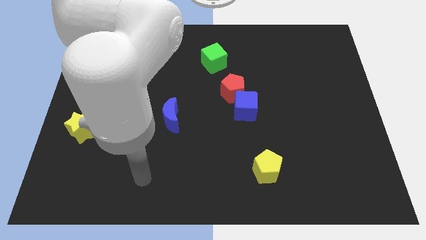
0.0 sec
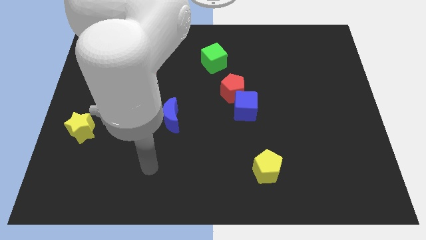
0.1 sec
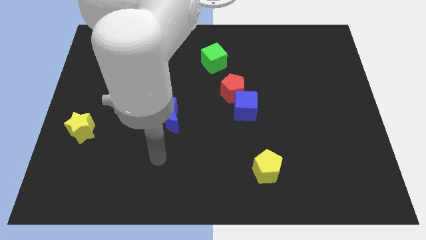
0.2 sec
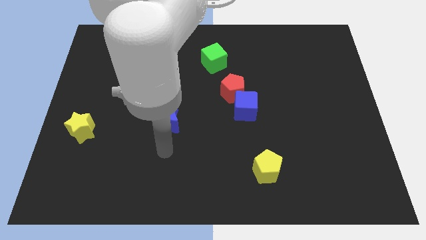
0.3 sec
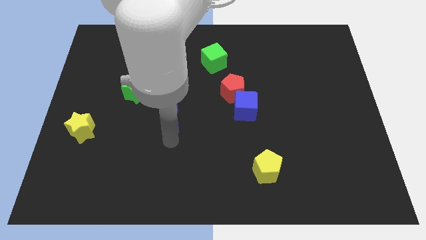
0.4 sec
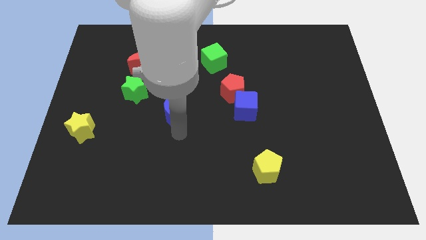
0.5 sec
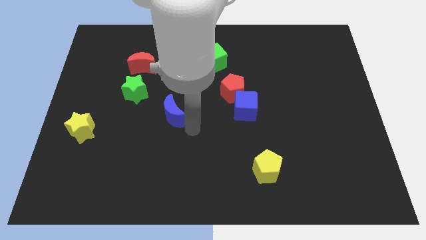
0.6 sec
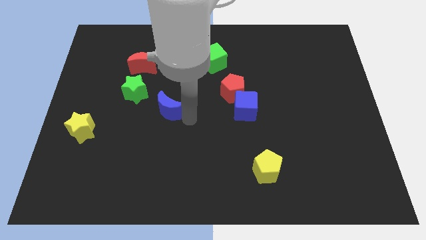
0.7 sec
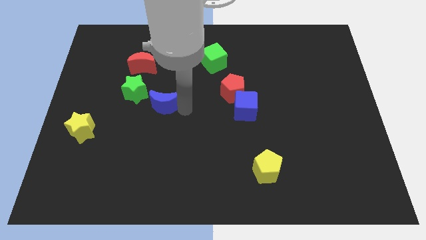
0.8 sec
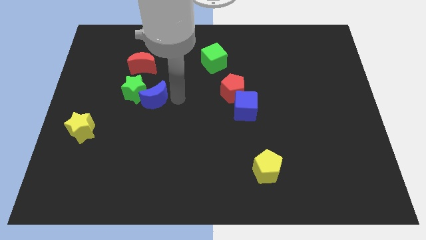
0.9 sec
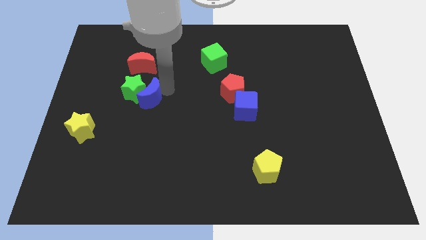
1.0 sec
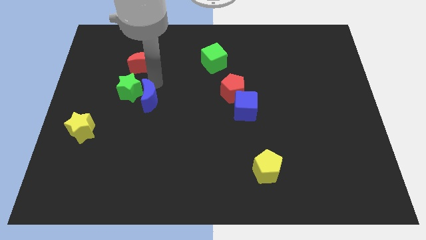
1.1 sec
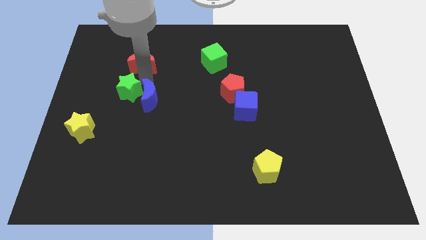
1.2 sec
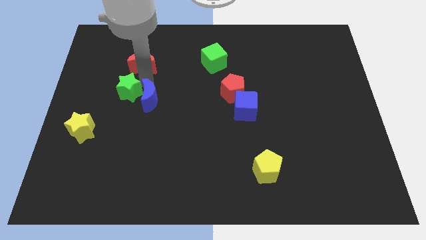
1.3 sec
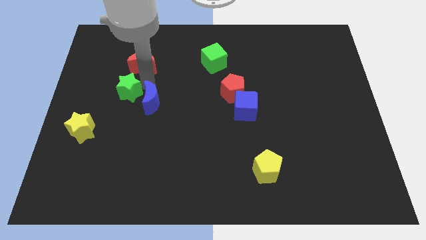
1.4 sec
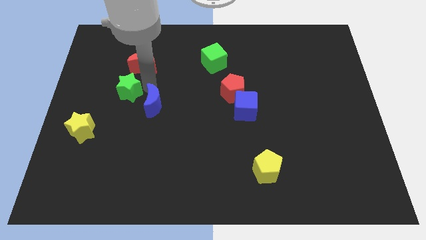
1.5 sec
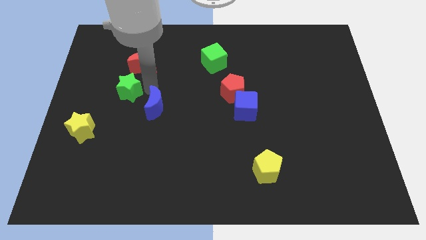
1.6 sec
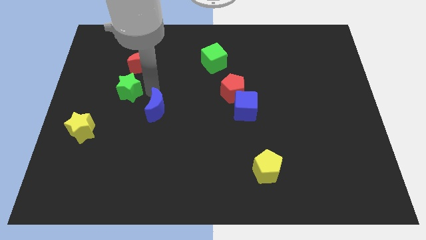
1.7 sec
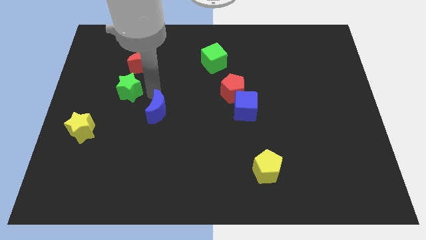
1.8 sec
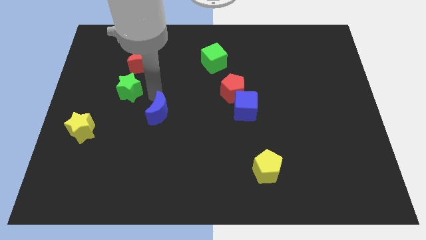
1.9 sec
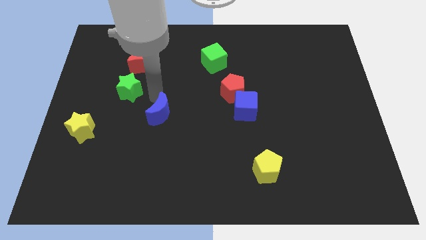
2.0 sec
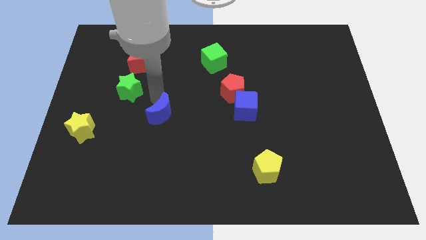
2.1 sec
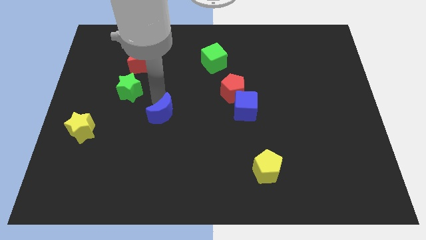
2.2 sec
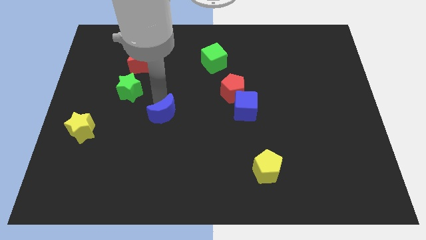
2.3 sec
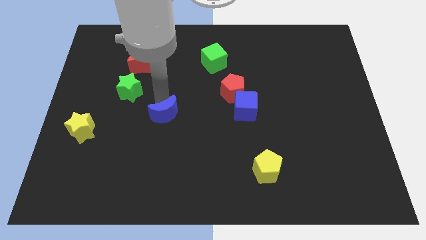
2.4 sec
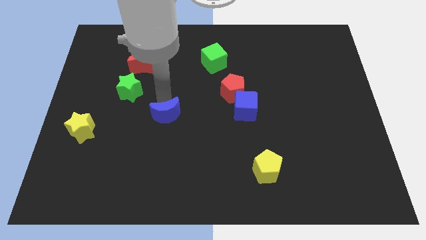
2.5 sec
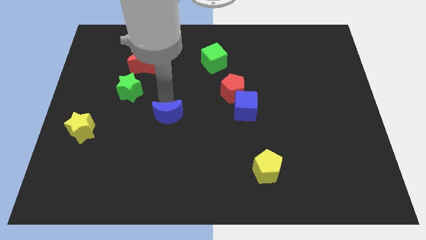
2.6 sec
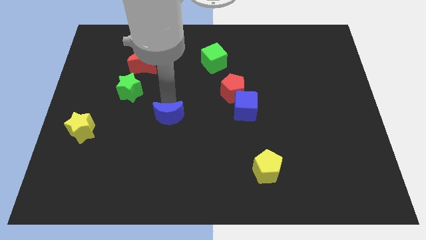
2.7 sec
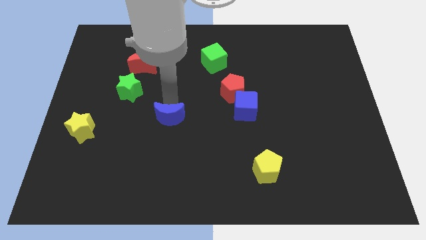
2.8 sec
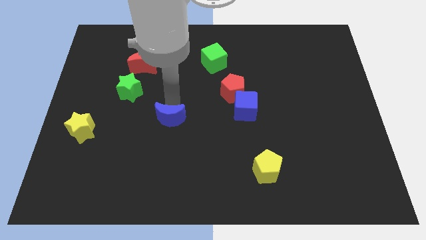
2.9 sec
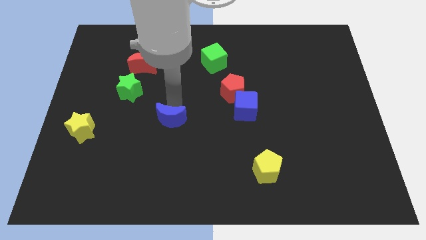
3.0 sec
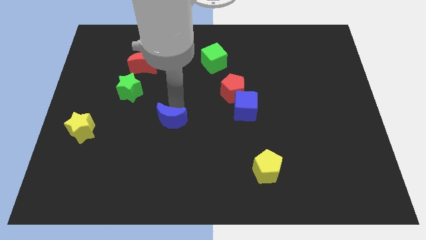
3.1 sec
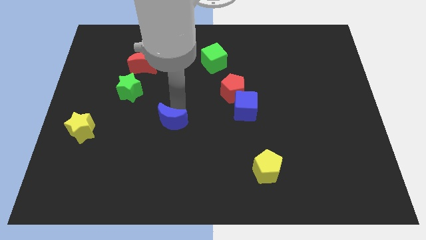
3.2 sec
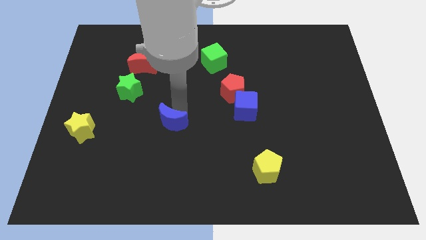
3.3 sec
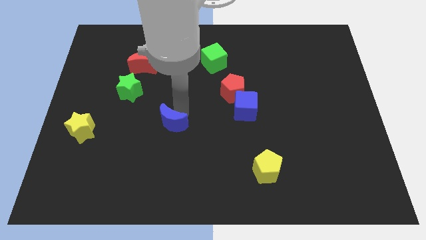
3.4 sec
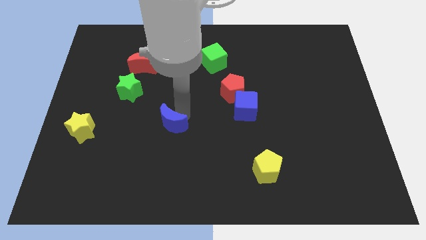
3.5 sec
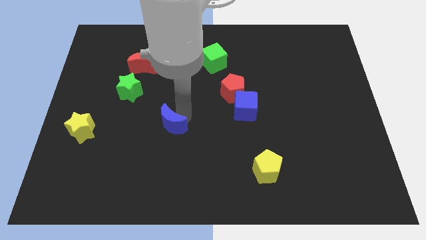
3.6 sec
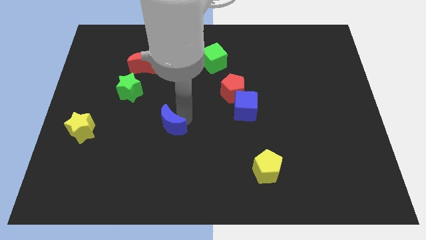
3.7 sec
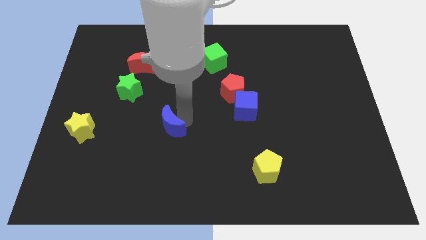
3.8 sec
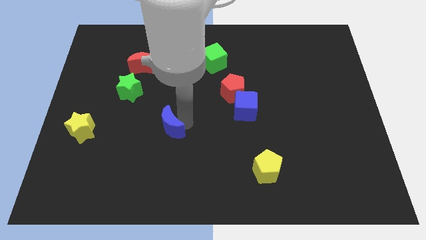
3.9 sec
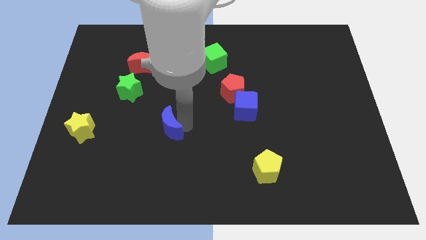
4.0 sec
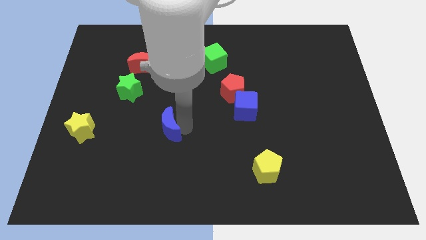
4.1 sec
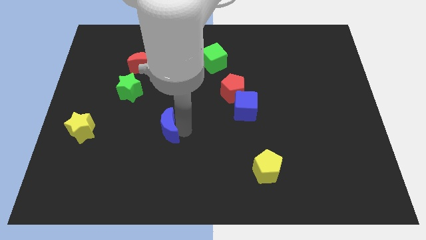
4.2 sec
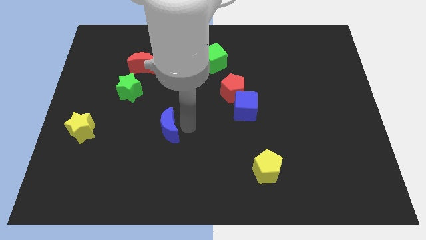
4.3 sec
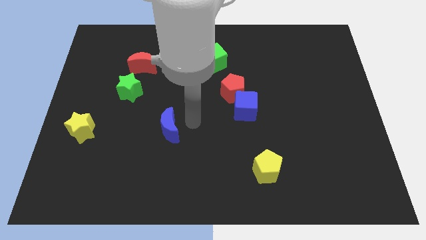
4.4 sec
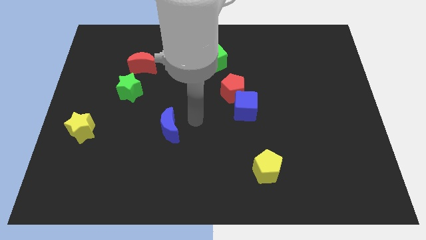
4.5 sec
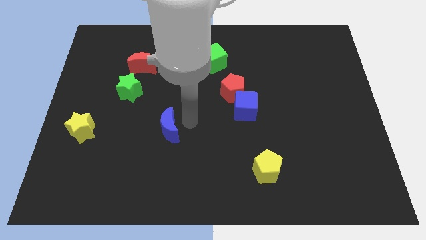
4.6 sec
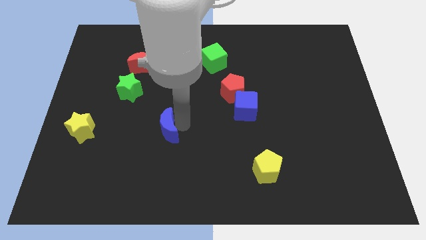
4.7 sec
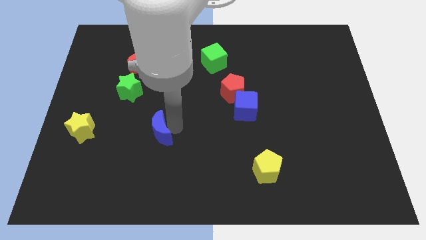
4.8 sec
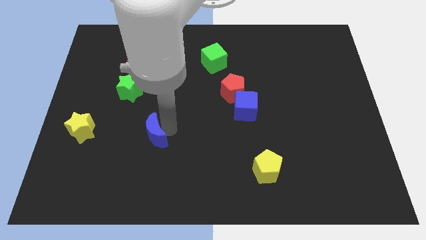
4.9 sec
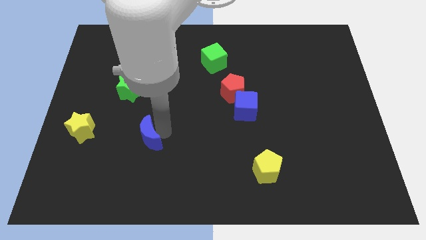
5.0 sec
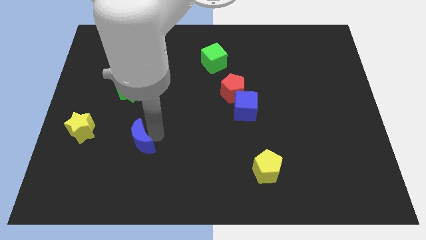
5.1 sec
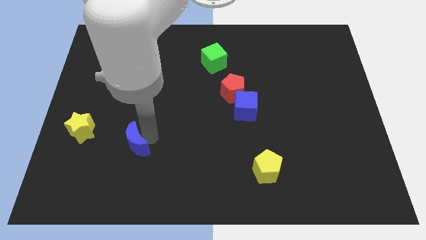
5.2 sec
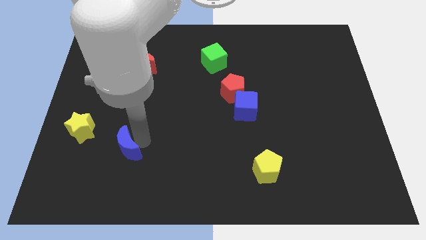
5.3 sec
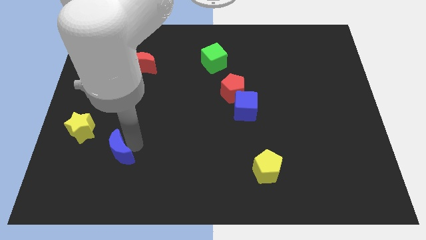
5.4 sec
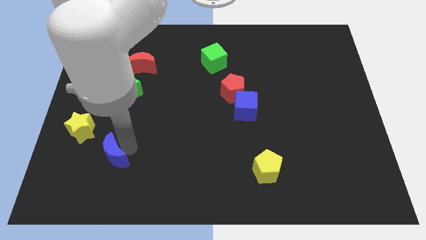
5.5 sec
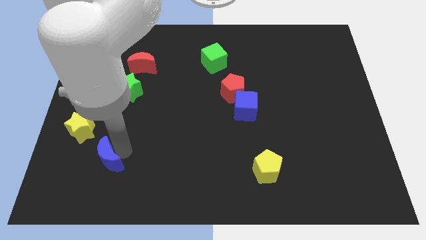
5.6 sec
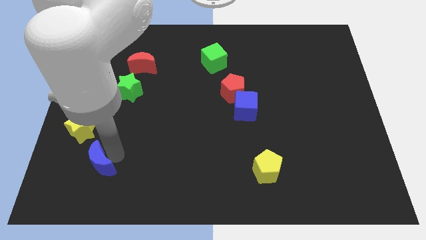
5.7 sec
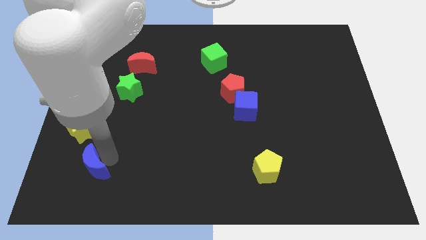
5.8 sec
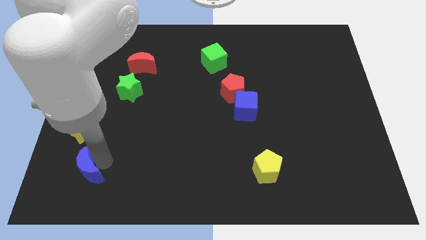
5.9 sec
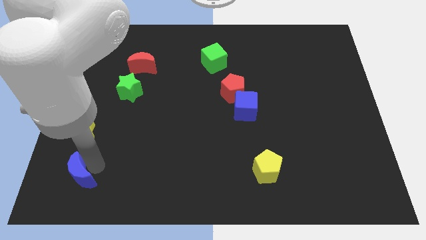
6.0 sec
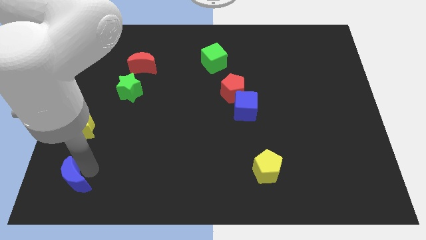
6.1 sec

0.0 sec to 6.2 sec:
slide the blue moon to the lower left corner
